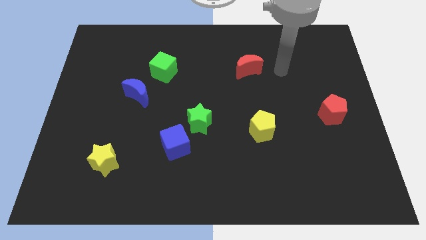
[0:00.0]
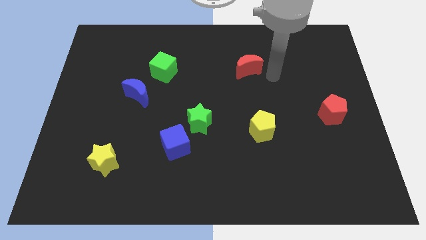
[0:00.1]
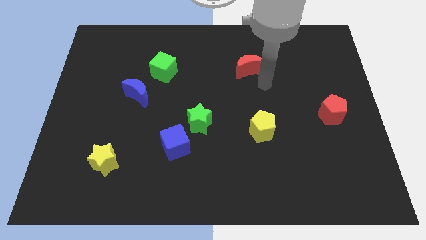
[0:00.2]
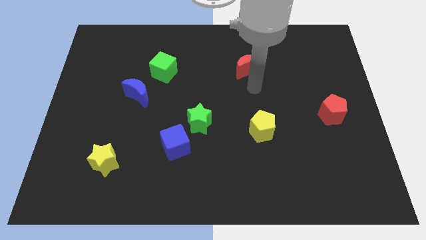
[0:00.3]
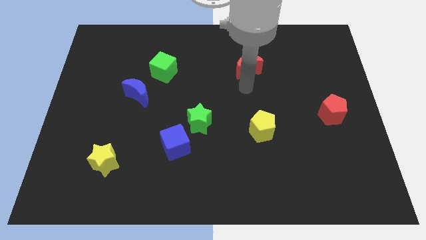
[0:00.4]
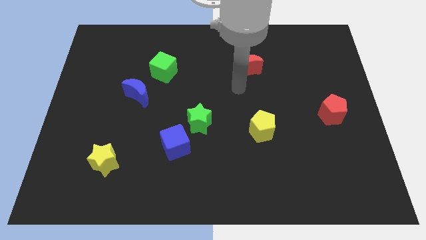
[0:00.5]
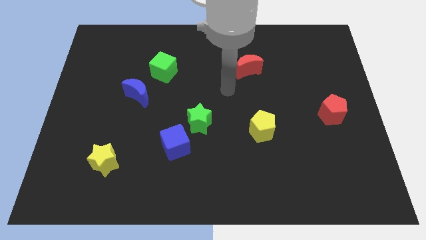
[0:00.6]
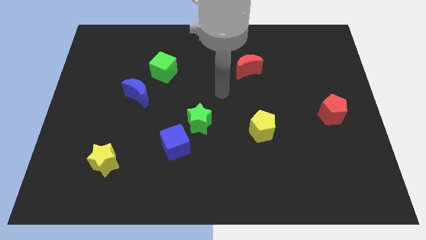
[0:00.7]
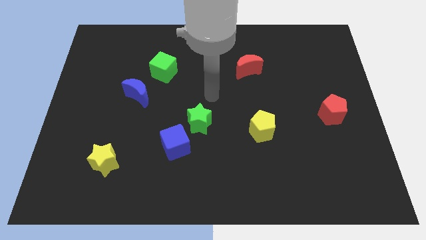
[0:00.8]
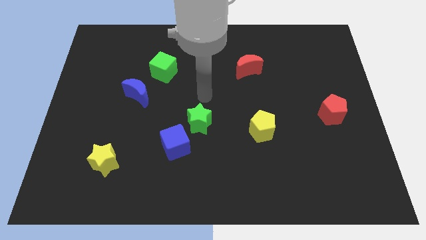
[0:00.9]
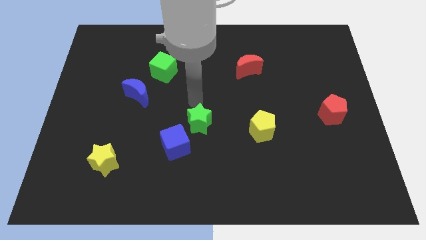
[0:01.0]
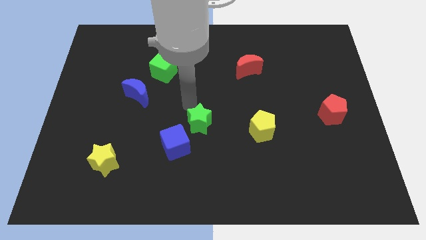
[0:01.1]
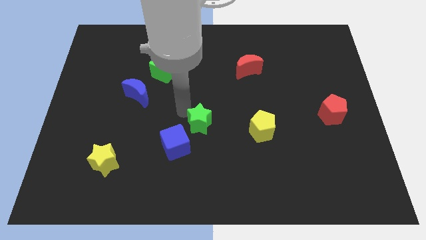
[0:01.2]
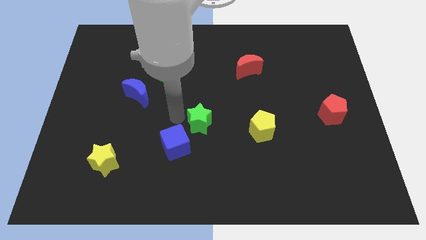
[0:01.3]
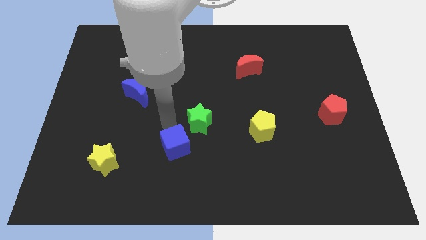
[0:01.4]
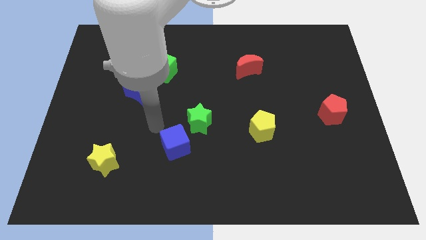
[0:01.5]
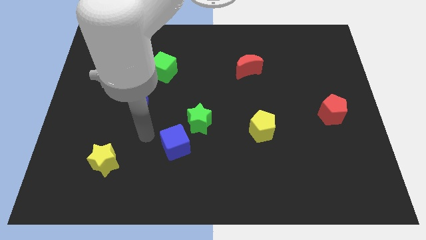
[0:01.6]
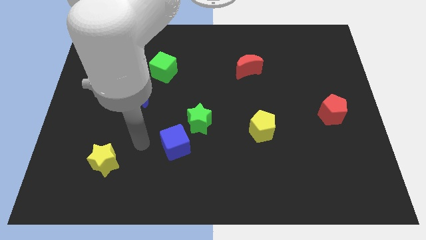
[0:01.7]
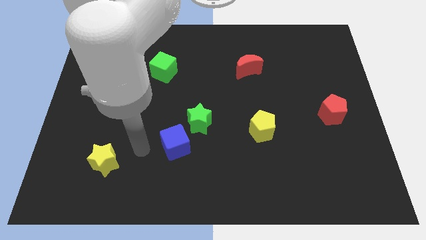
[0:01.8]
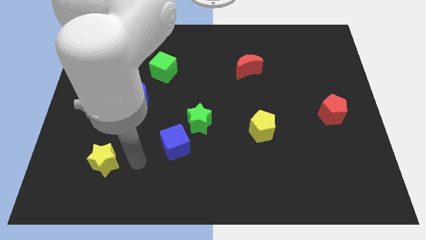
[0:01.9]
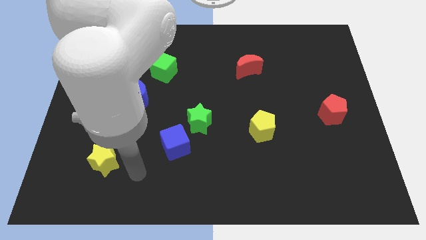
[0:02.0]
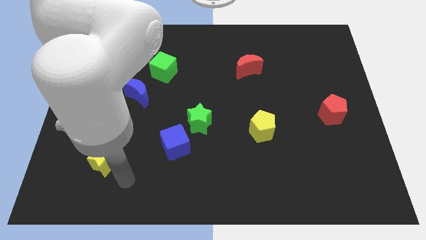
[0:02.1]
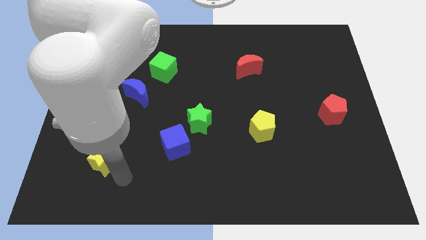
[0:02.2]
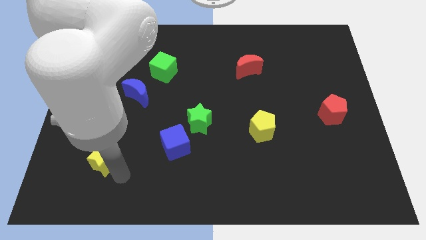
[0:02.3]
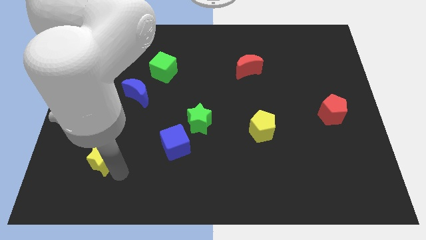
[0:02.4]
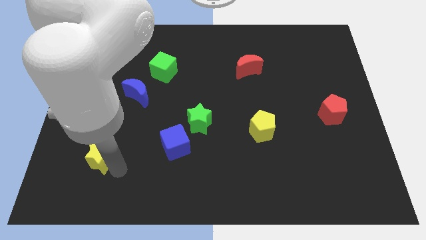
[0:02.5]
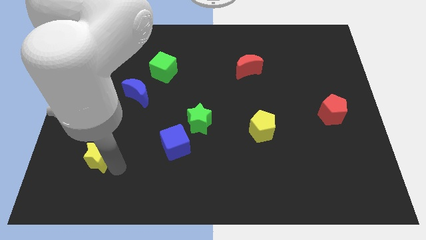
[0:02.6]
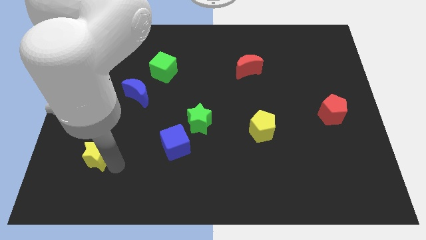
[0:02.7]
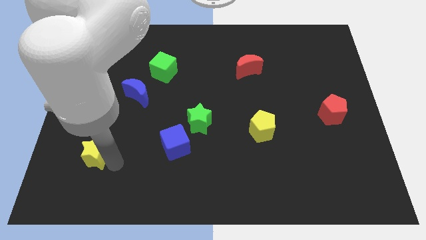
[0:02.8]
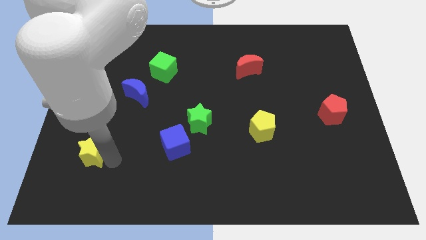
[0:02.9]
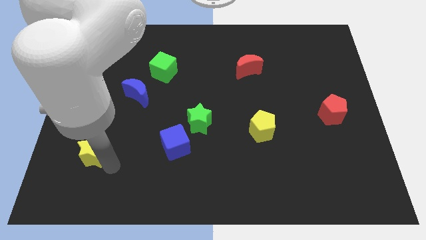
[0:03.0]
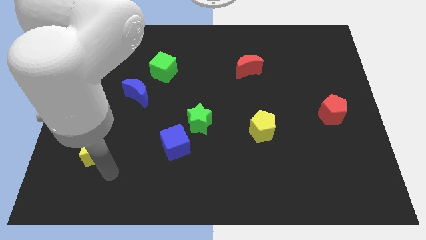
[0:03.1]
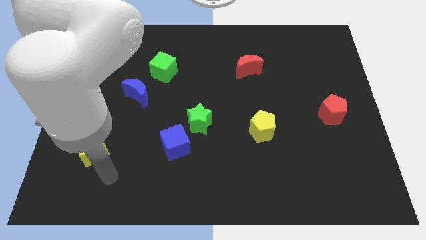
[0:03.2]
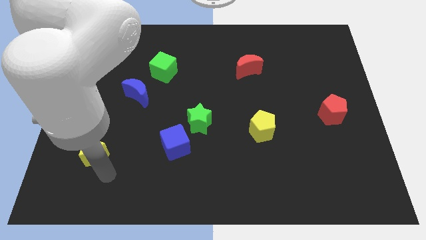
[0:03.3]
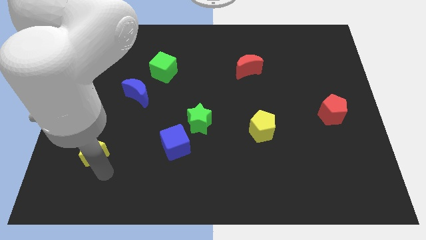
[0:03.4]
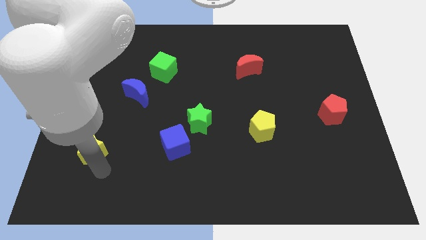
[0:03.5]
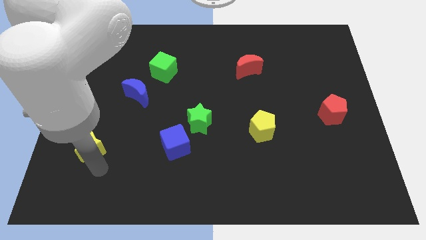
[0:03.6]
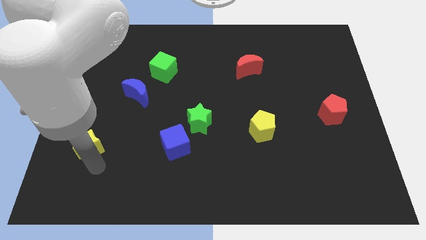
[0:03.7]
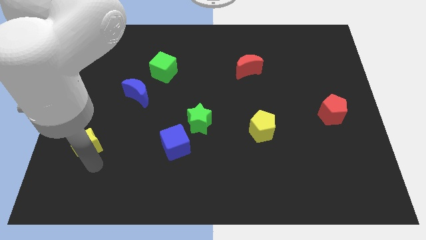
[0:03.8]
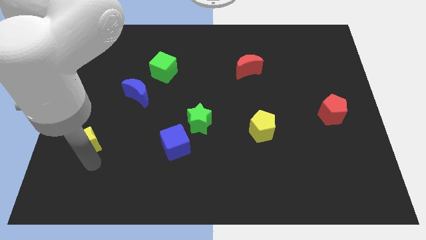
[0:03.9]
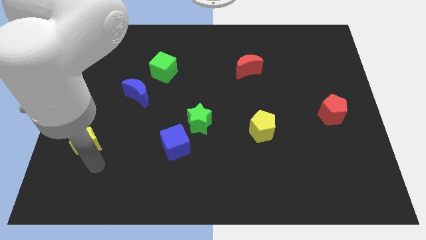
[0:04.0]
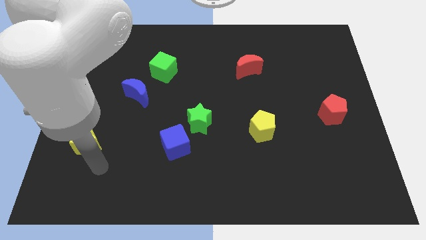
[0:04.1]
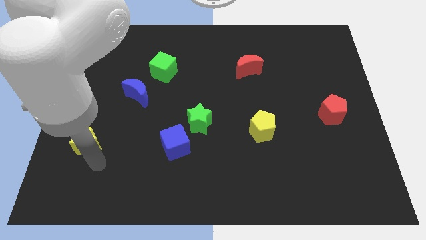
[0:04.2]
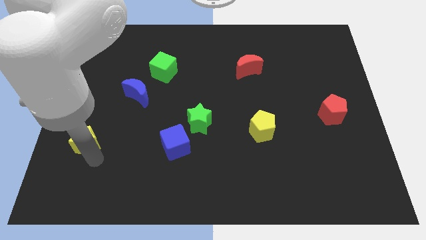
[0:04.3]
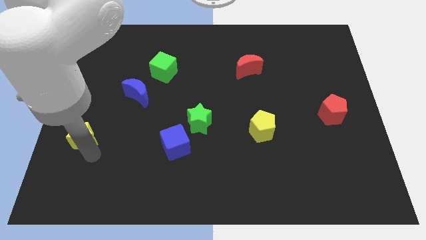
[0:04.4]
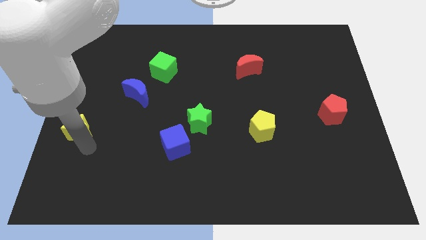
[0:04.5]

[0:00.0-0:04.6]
move the yellow star to the center left

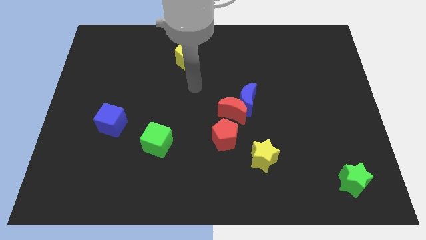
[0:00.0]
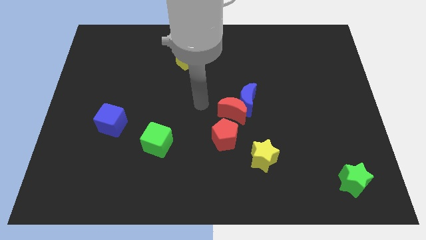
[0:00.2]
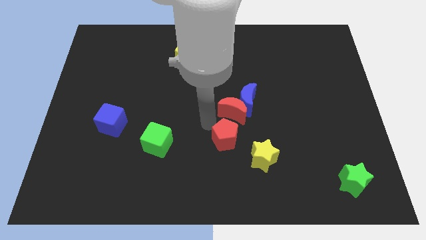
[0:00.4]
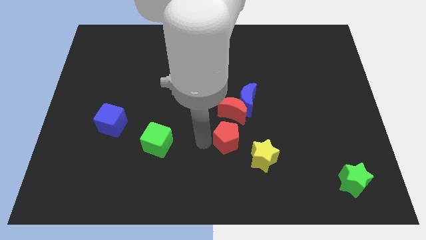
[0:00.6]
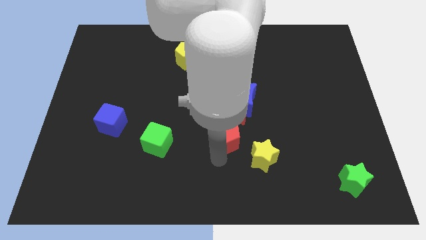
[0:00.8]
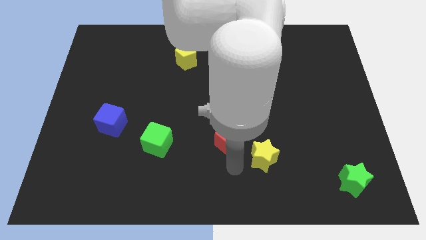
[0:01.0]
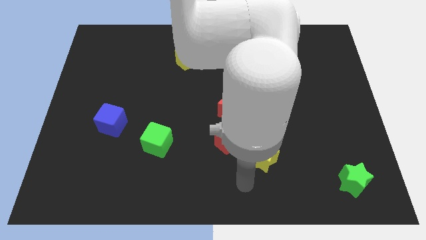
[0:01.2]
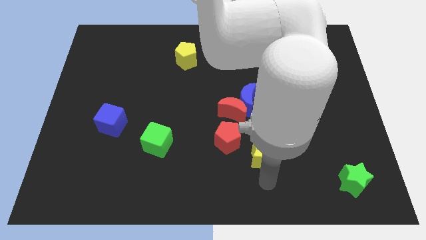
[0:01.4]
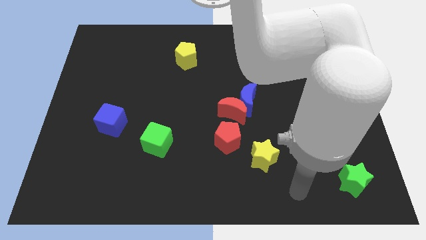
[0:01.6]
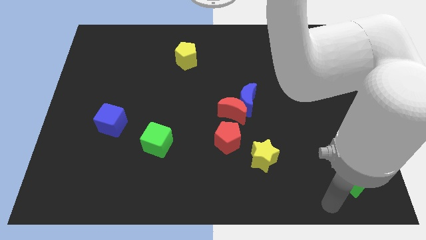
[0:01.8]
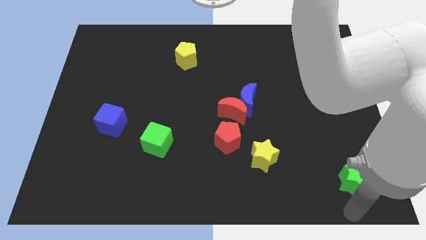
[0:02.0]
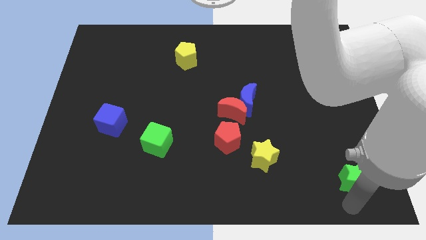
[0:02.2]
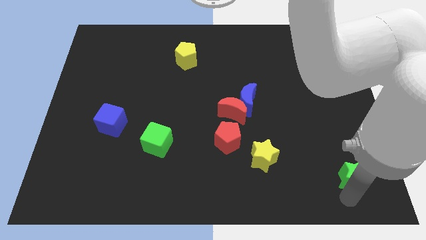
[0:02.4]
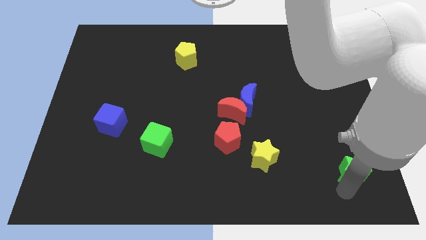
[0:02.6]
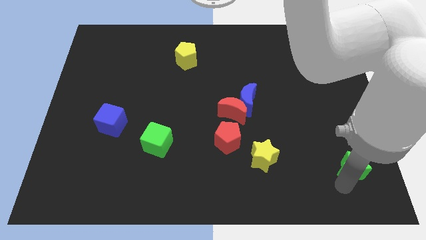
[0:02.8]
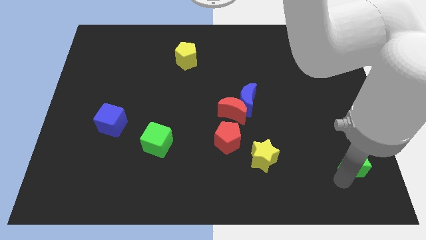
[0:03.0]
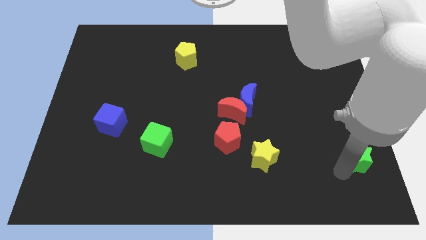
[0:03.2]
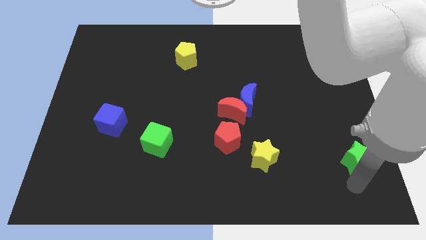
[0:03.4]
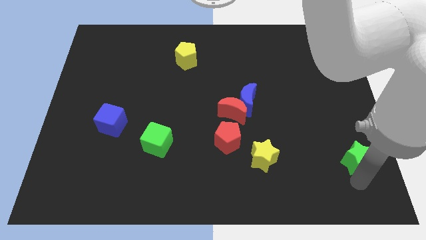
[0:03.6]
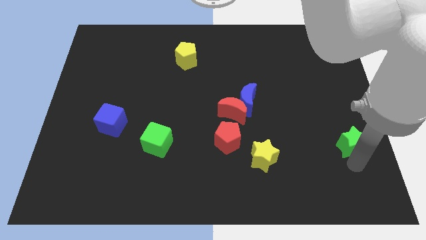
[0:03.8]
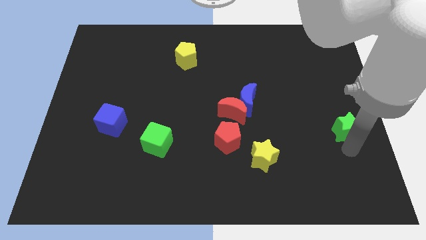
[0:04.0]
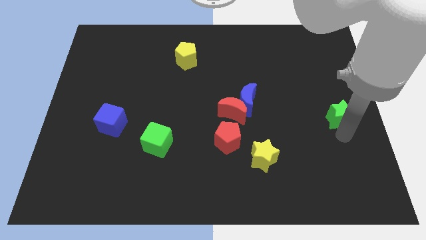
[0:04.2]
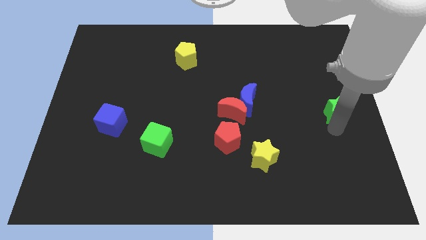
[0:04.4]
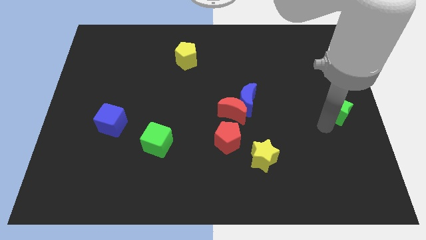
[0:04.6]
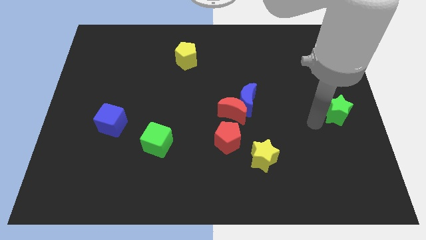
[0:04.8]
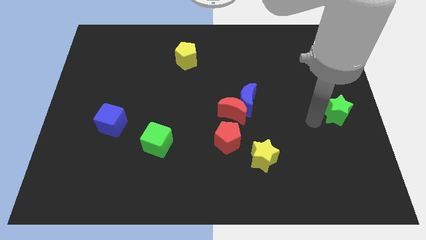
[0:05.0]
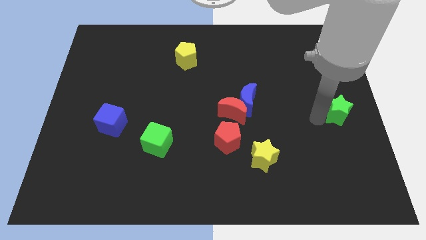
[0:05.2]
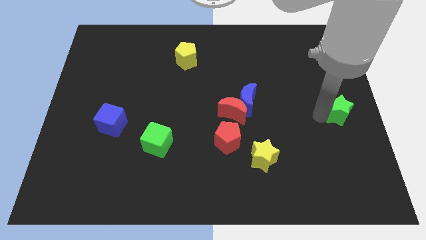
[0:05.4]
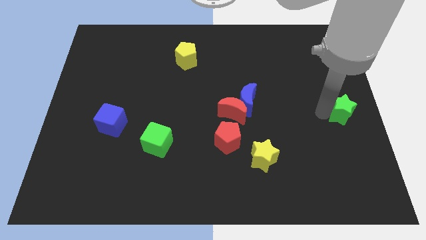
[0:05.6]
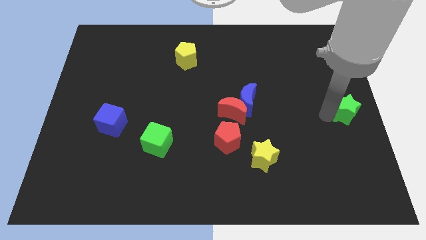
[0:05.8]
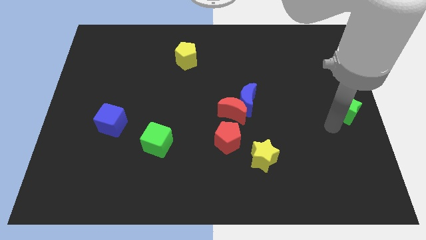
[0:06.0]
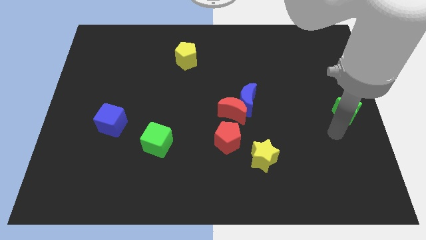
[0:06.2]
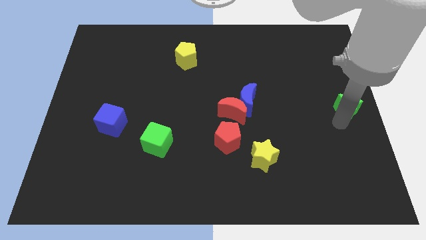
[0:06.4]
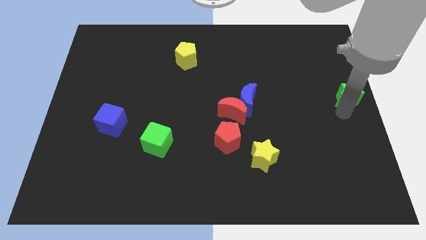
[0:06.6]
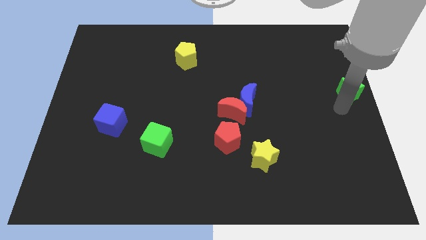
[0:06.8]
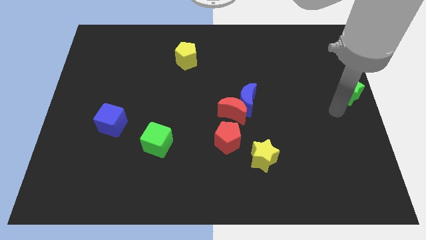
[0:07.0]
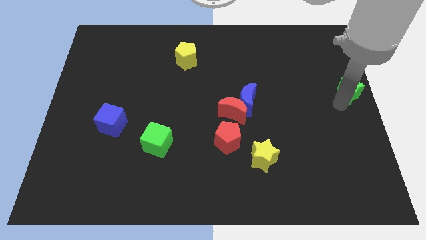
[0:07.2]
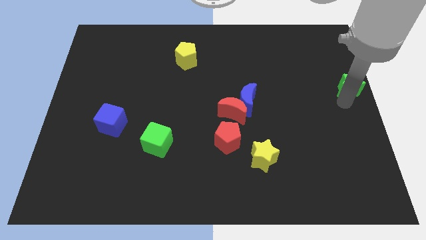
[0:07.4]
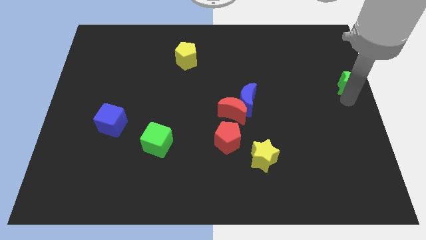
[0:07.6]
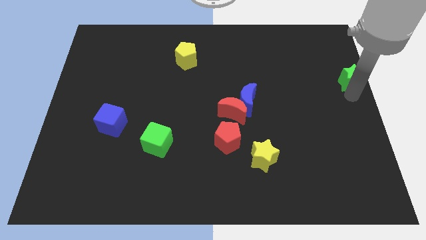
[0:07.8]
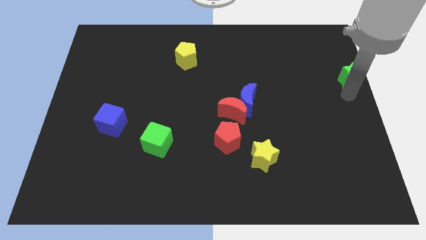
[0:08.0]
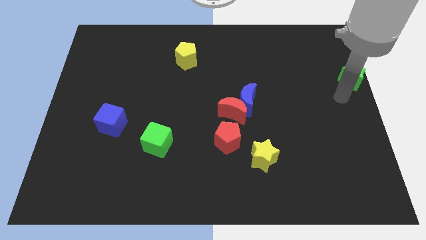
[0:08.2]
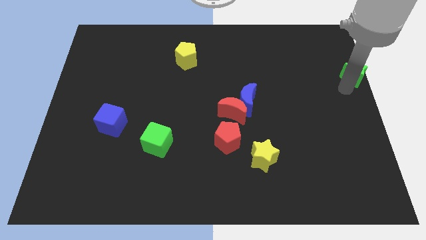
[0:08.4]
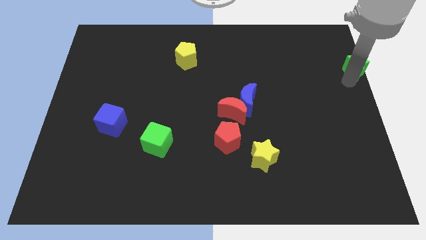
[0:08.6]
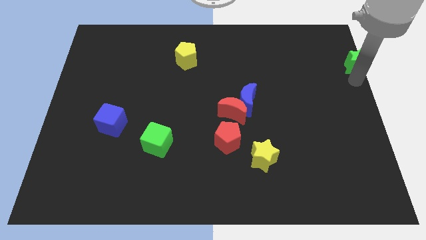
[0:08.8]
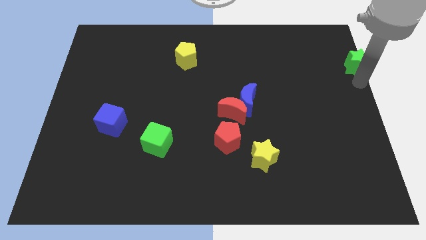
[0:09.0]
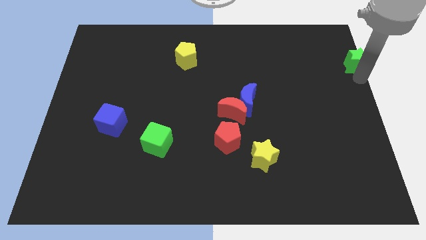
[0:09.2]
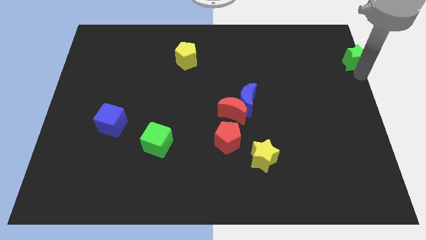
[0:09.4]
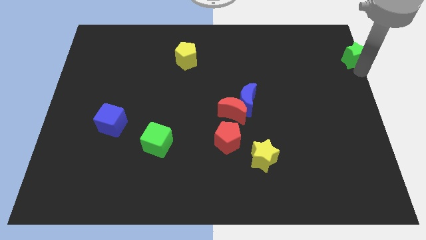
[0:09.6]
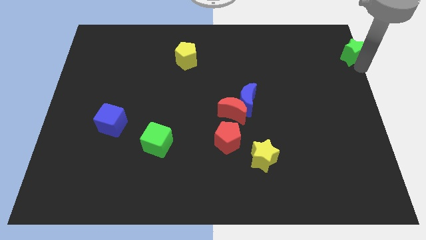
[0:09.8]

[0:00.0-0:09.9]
push the green star to the top right
